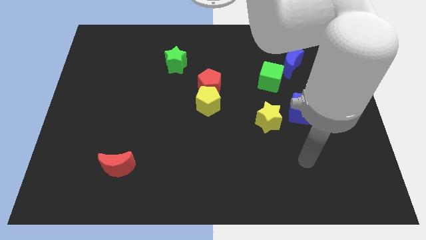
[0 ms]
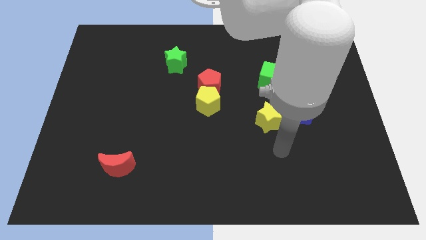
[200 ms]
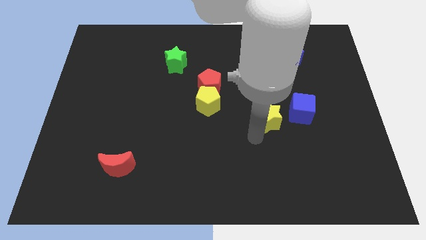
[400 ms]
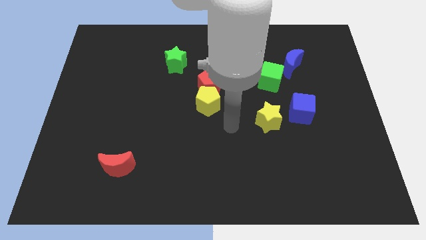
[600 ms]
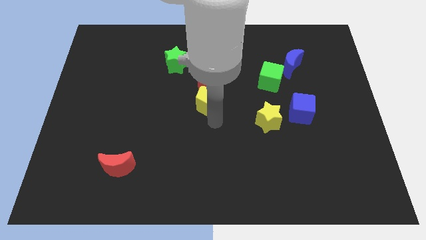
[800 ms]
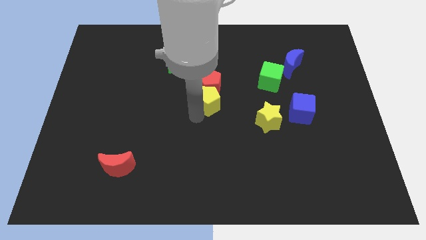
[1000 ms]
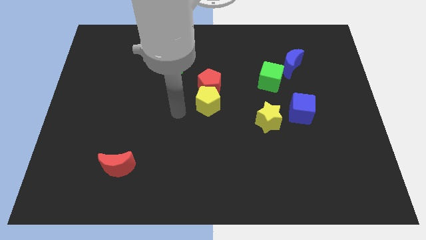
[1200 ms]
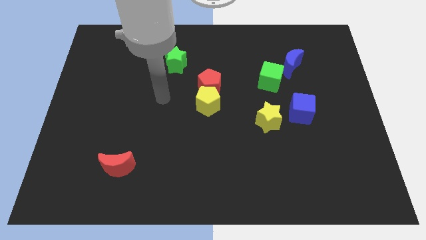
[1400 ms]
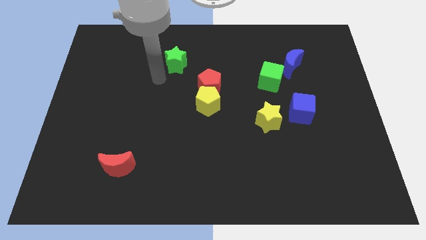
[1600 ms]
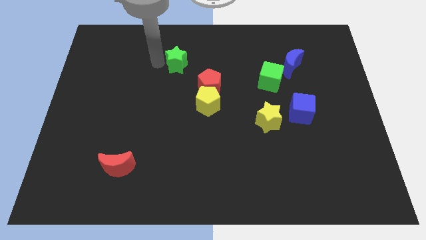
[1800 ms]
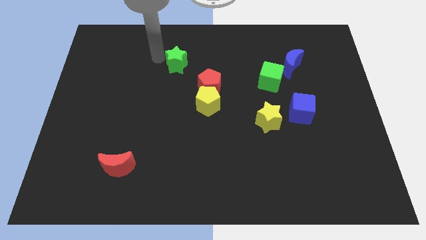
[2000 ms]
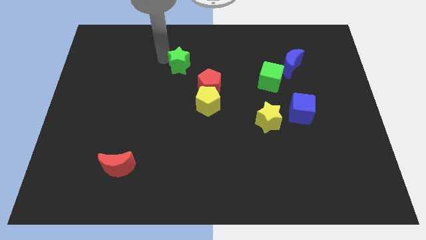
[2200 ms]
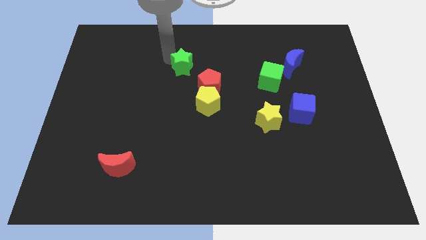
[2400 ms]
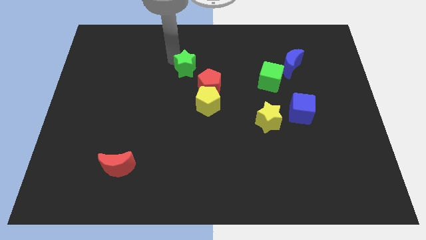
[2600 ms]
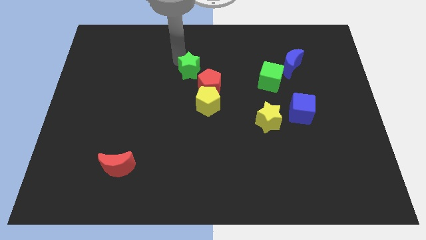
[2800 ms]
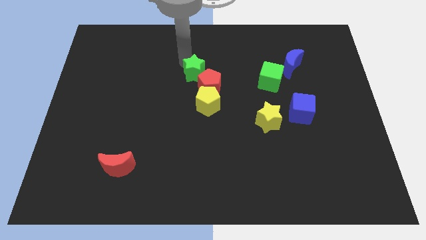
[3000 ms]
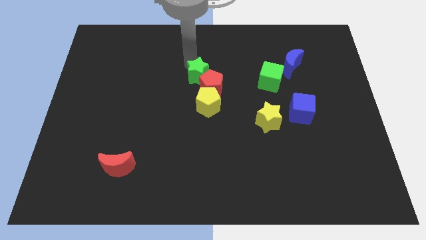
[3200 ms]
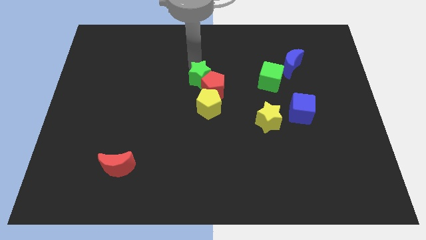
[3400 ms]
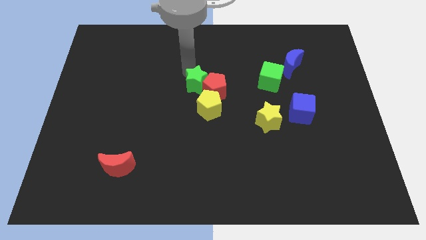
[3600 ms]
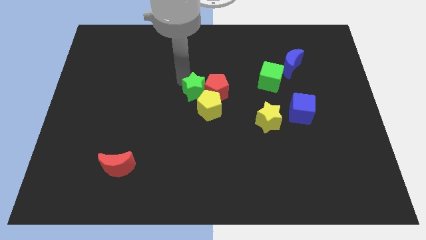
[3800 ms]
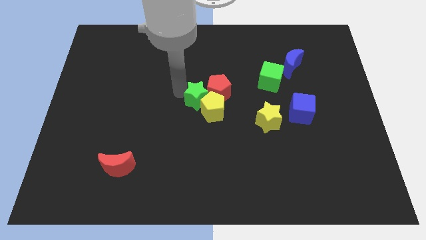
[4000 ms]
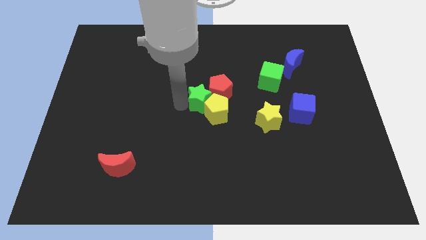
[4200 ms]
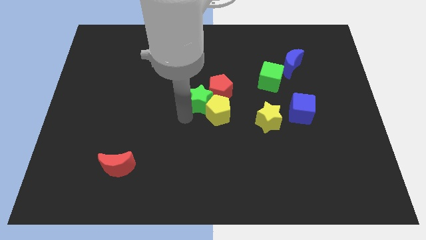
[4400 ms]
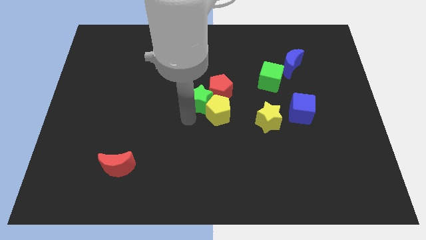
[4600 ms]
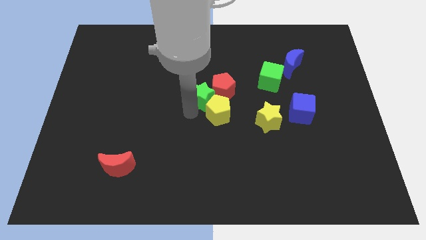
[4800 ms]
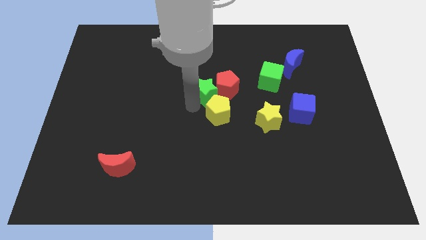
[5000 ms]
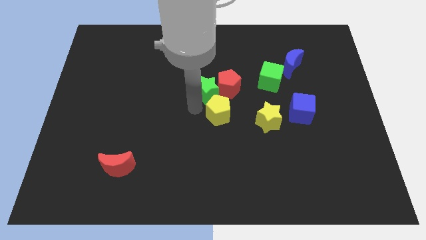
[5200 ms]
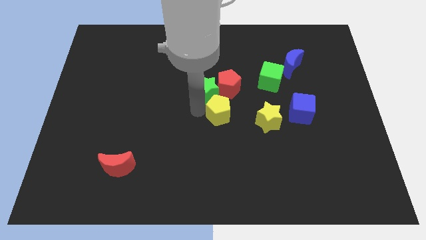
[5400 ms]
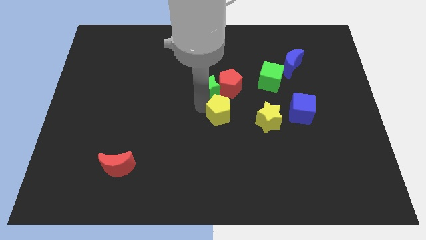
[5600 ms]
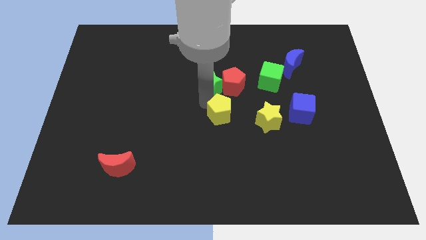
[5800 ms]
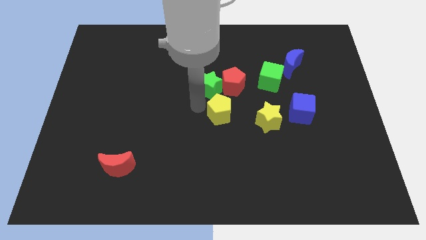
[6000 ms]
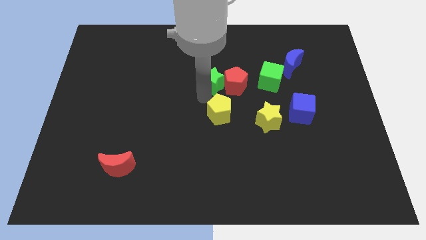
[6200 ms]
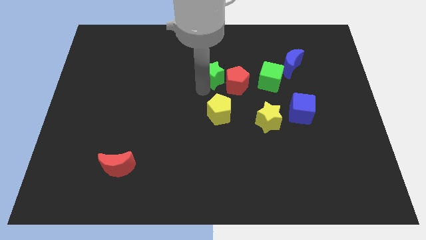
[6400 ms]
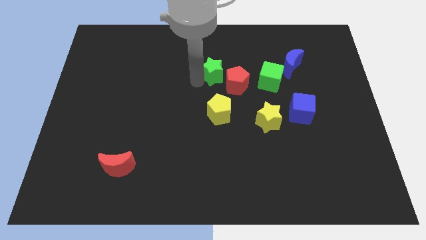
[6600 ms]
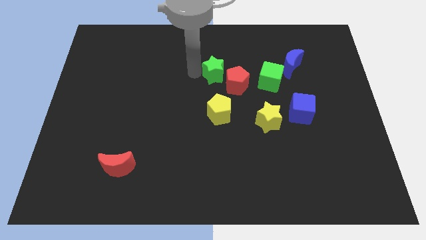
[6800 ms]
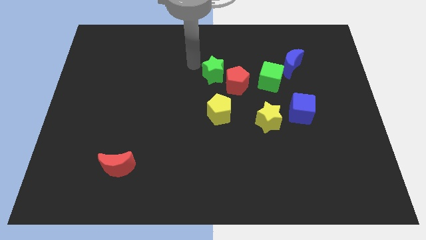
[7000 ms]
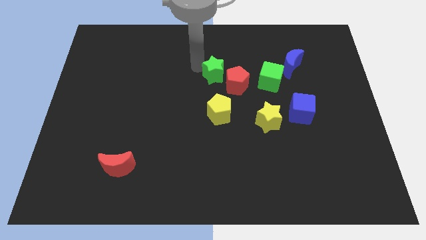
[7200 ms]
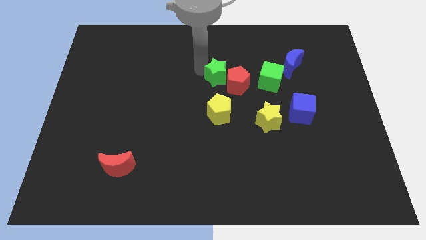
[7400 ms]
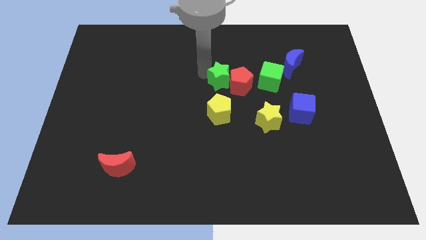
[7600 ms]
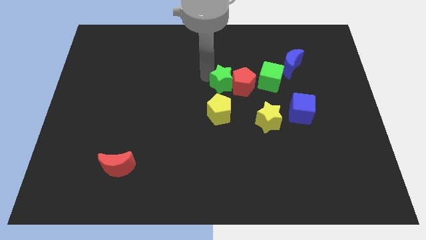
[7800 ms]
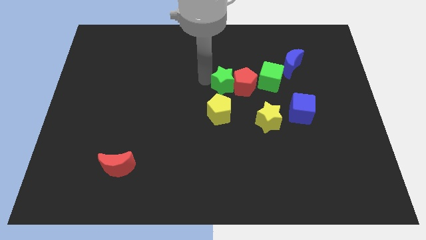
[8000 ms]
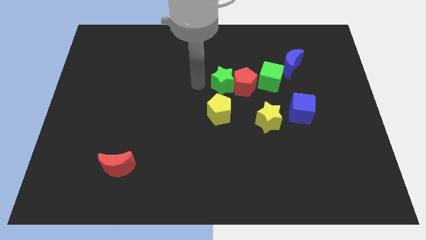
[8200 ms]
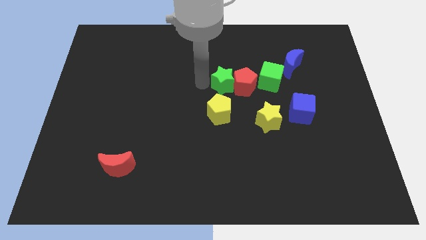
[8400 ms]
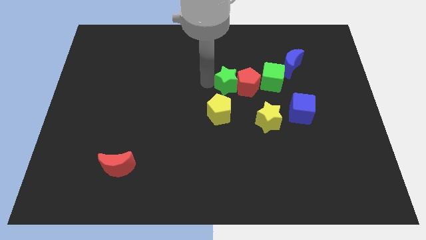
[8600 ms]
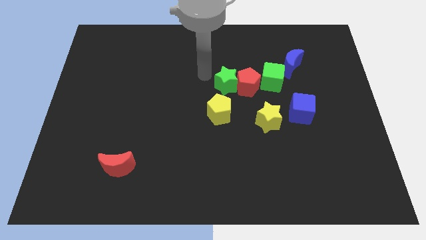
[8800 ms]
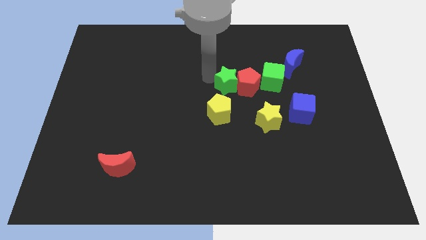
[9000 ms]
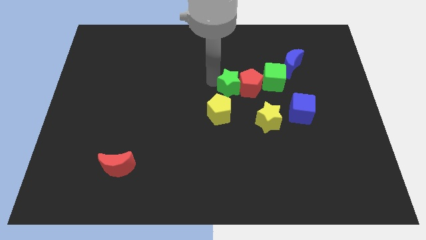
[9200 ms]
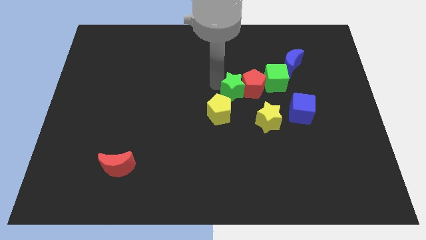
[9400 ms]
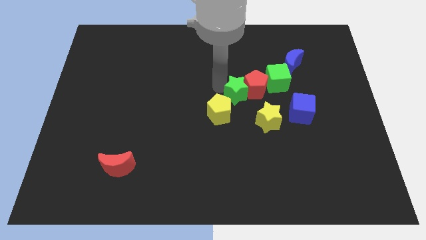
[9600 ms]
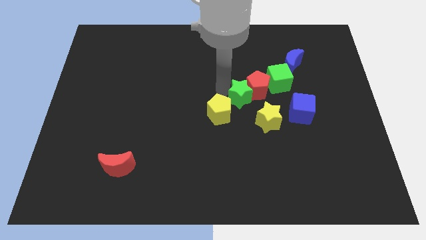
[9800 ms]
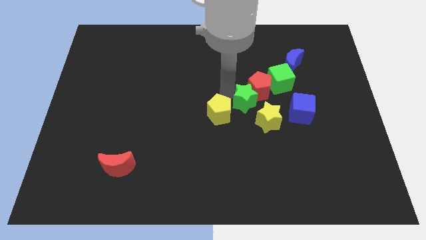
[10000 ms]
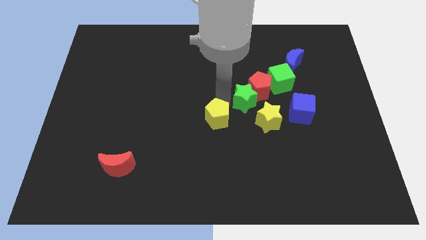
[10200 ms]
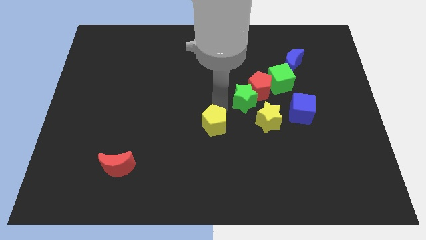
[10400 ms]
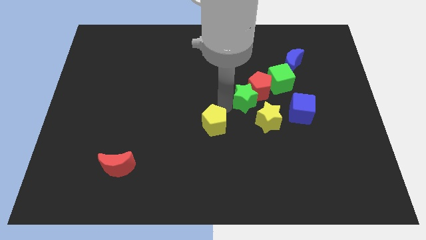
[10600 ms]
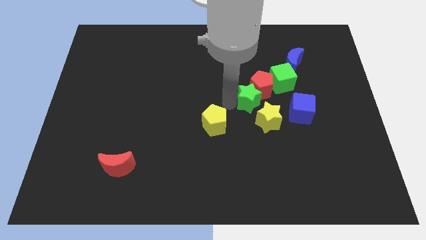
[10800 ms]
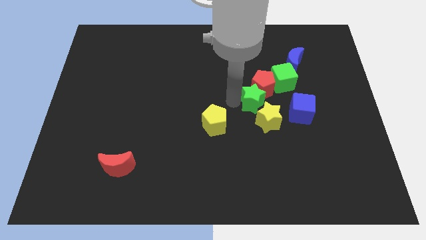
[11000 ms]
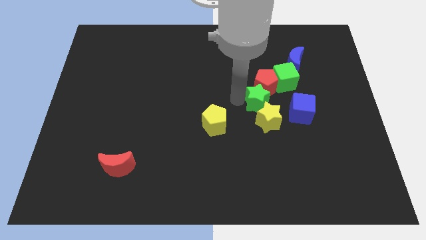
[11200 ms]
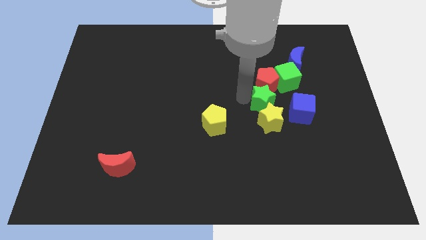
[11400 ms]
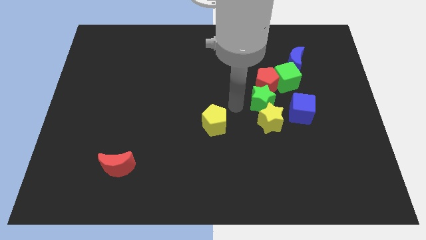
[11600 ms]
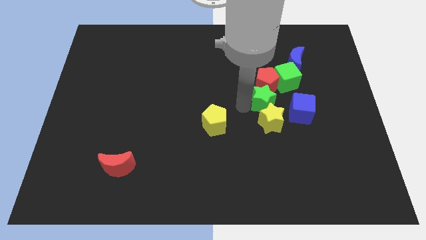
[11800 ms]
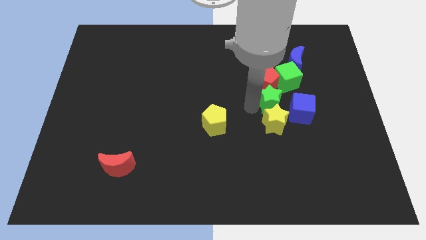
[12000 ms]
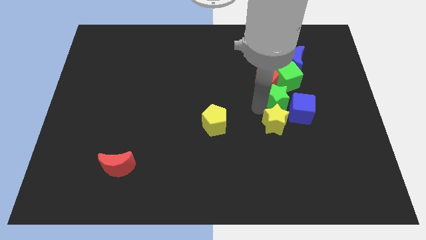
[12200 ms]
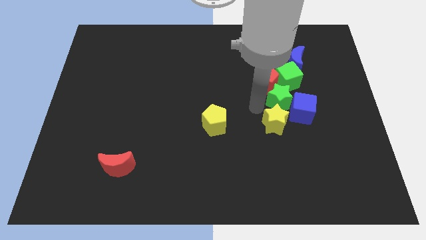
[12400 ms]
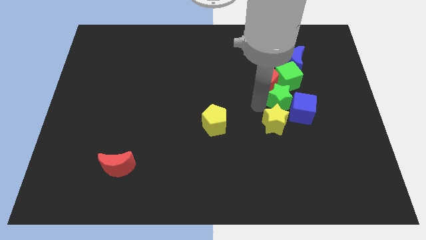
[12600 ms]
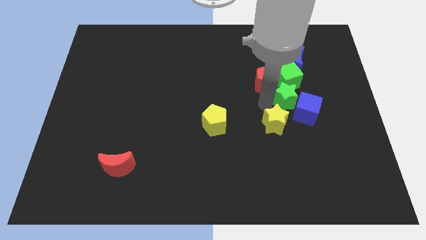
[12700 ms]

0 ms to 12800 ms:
move the green star below the blue moon
